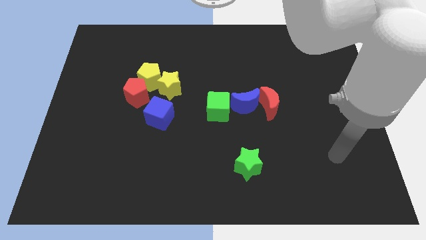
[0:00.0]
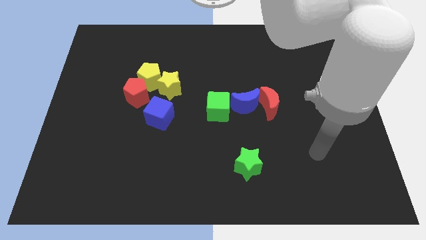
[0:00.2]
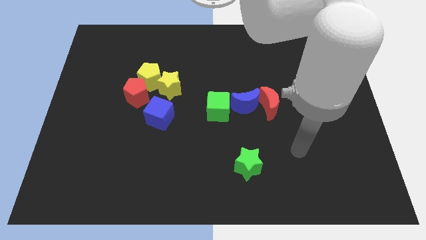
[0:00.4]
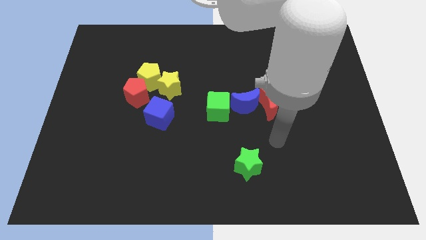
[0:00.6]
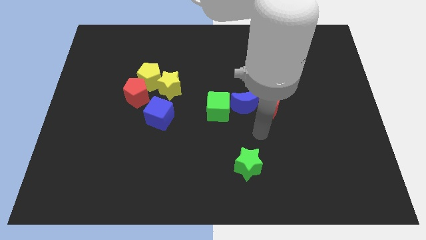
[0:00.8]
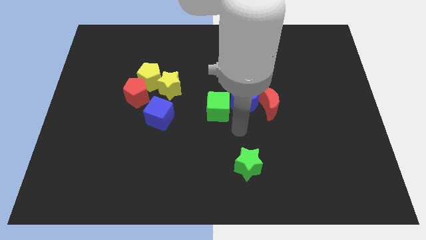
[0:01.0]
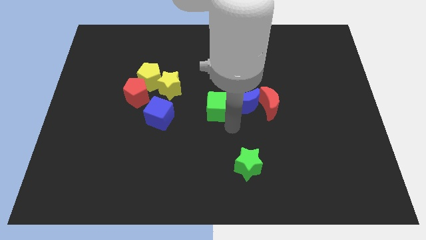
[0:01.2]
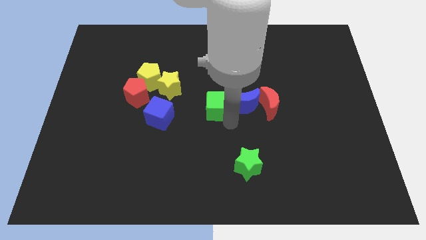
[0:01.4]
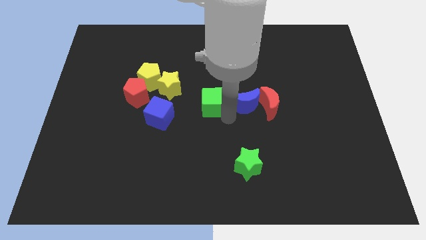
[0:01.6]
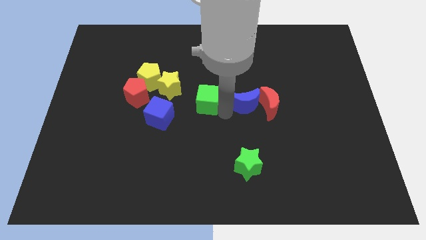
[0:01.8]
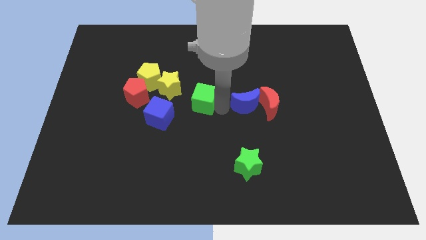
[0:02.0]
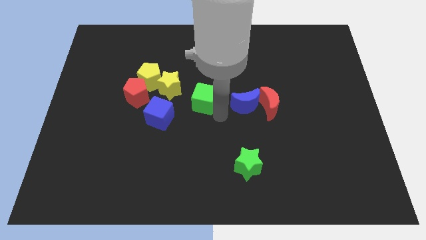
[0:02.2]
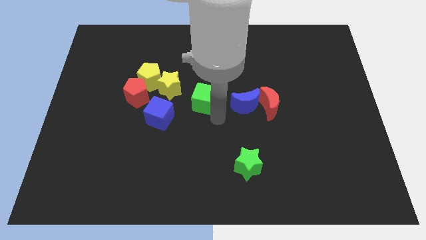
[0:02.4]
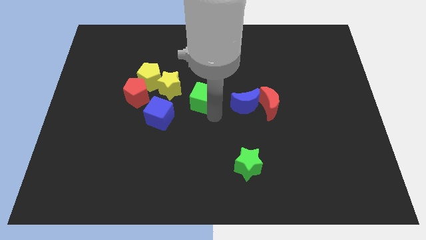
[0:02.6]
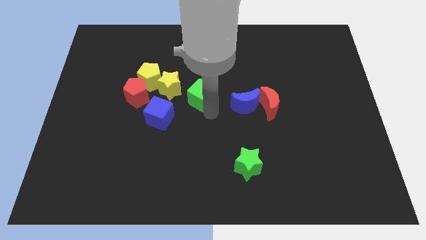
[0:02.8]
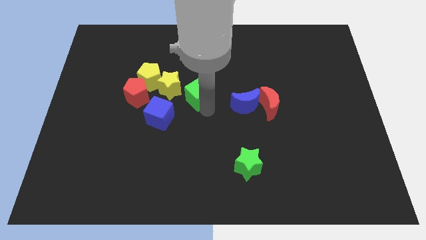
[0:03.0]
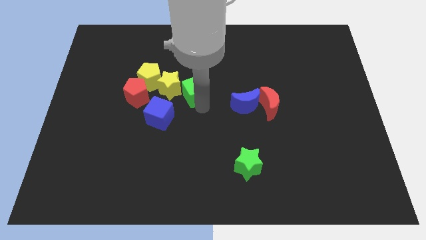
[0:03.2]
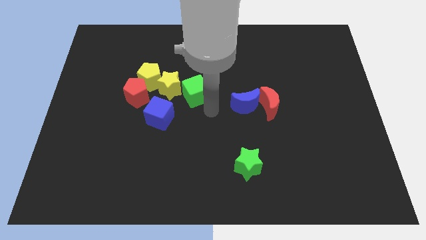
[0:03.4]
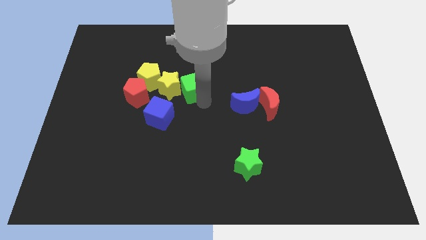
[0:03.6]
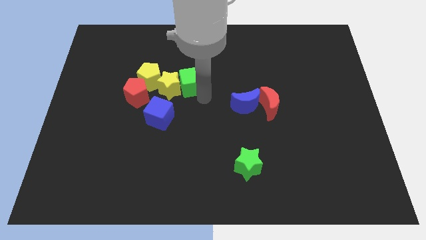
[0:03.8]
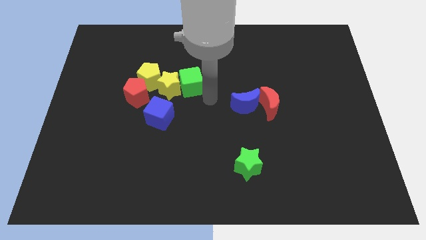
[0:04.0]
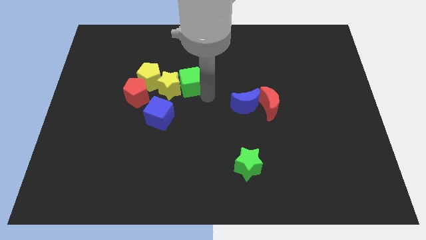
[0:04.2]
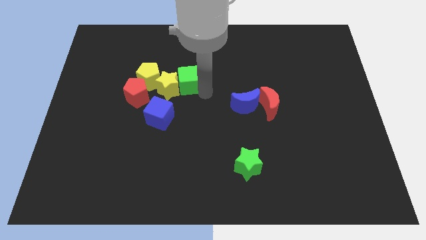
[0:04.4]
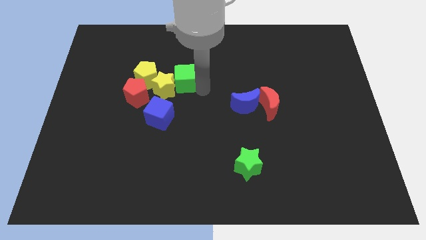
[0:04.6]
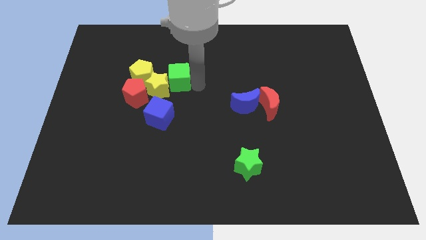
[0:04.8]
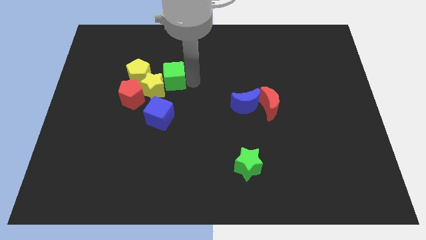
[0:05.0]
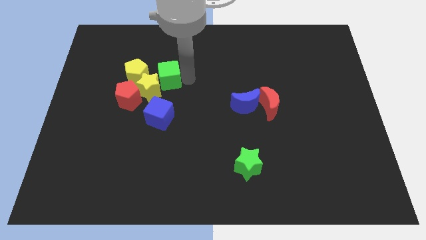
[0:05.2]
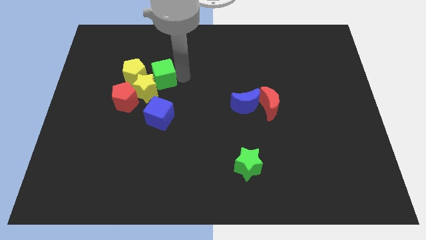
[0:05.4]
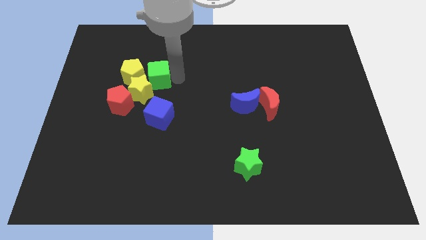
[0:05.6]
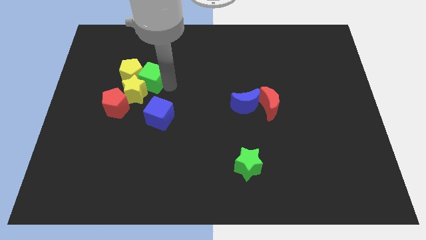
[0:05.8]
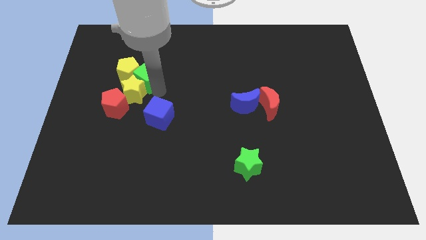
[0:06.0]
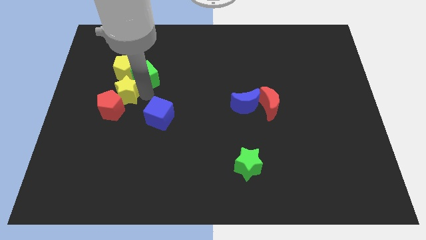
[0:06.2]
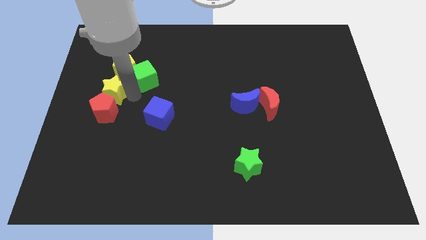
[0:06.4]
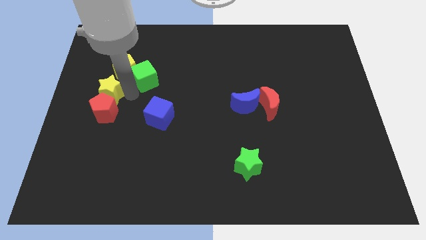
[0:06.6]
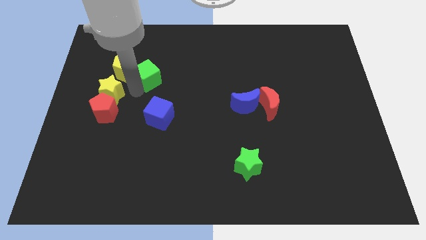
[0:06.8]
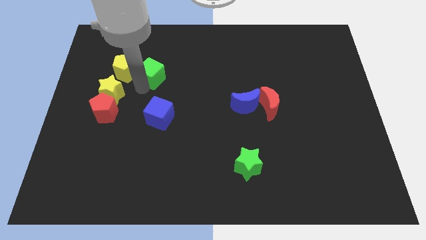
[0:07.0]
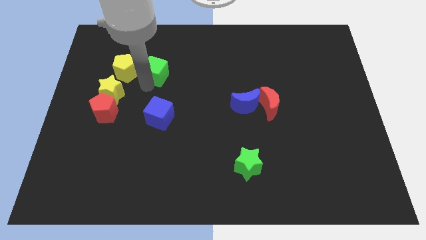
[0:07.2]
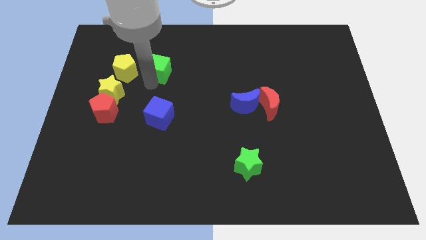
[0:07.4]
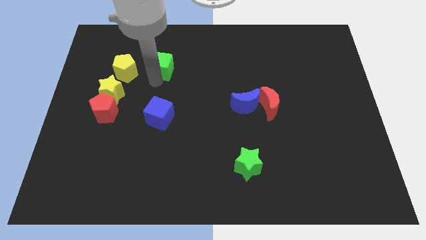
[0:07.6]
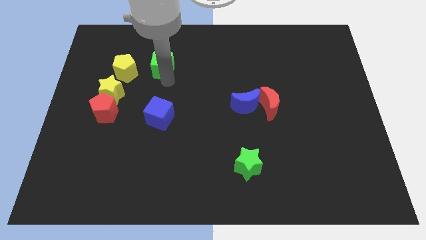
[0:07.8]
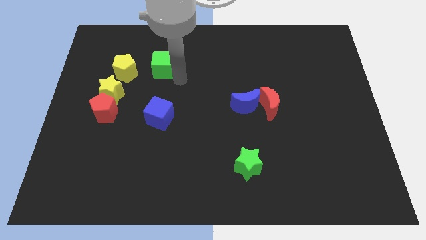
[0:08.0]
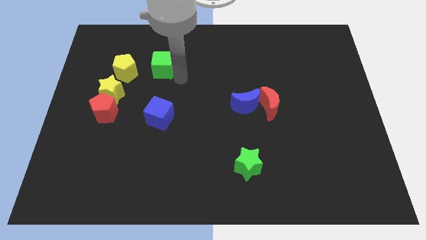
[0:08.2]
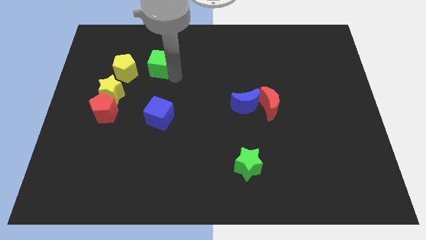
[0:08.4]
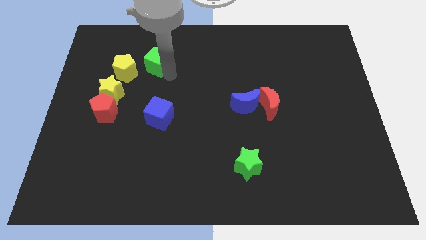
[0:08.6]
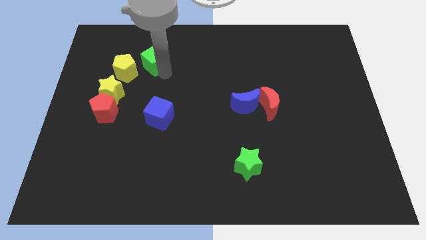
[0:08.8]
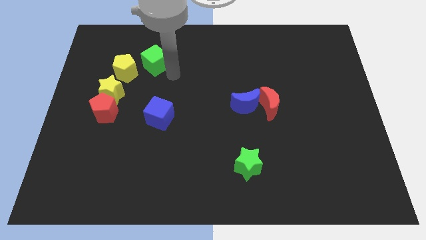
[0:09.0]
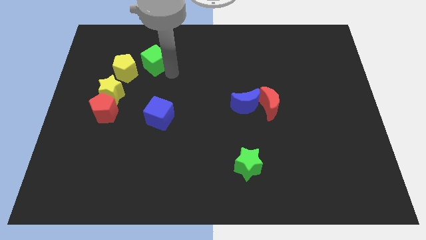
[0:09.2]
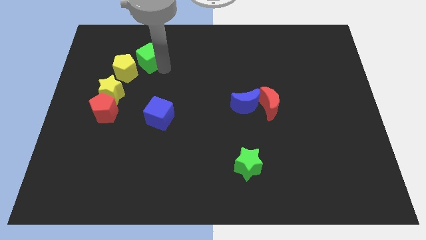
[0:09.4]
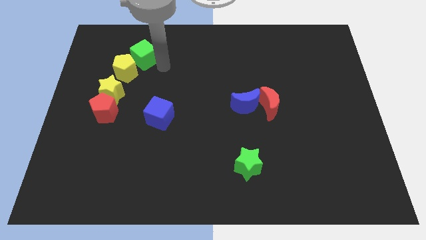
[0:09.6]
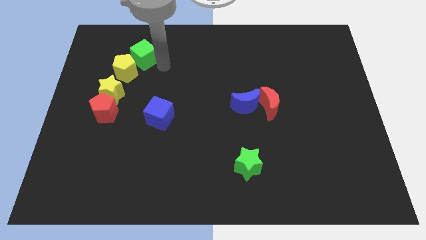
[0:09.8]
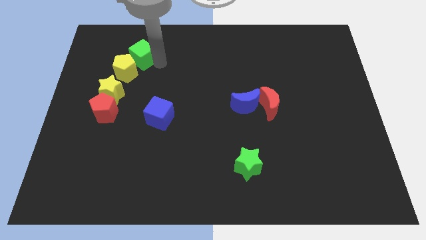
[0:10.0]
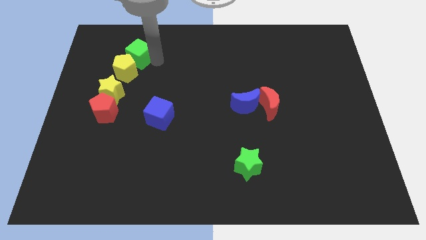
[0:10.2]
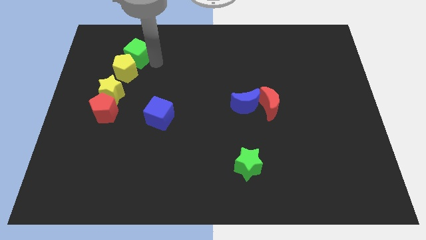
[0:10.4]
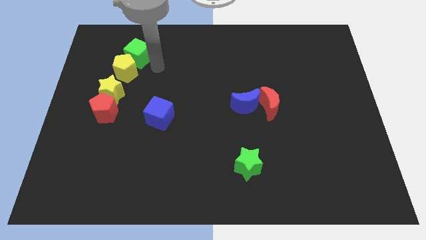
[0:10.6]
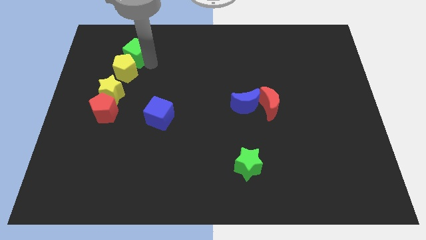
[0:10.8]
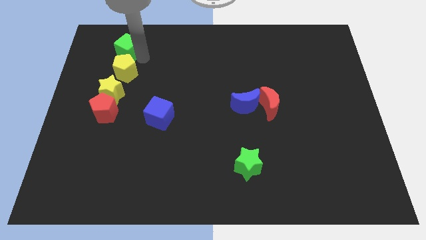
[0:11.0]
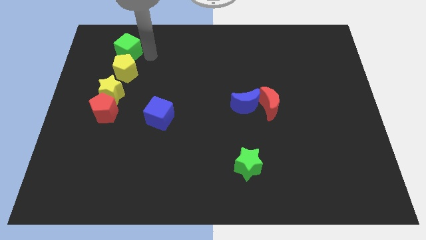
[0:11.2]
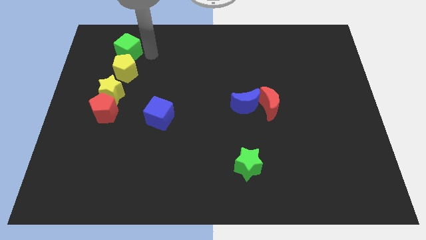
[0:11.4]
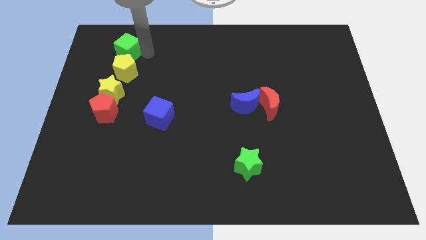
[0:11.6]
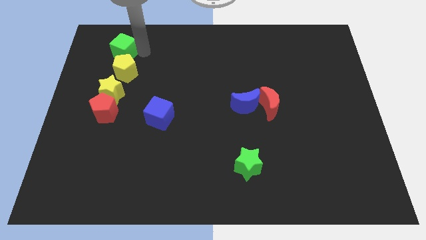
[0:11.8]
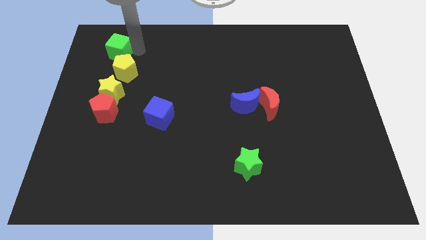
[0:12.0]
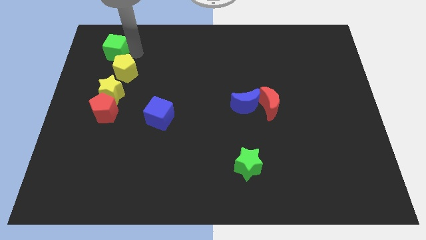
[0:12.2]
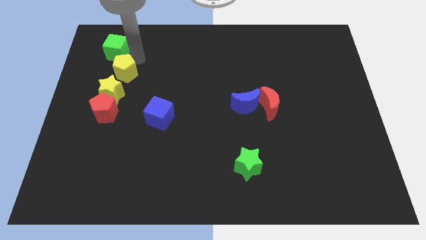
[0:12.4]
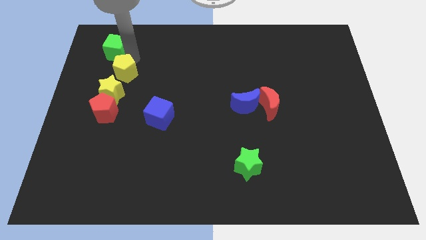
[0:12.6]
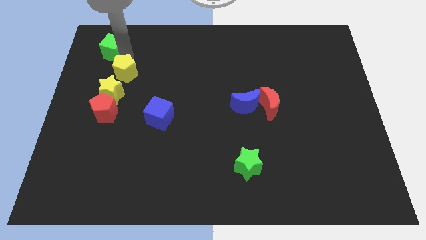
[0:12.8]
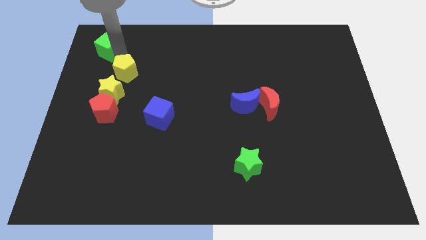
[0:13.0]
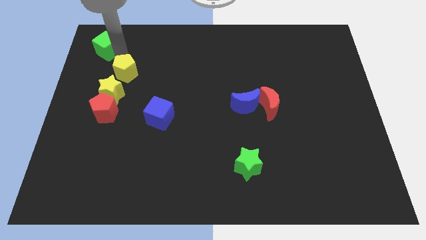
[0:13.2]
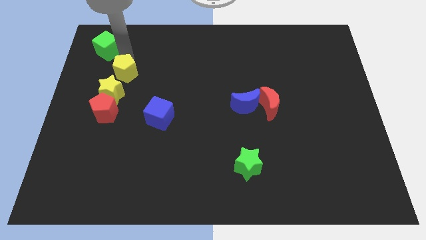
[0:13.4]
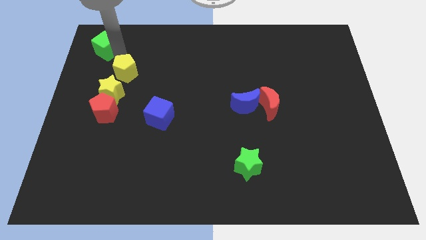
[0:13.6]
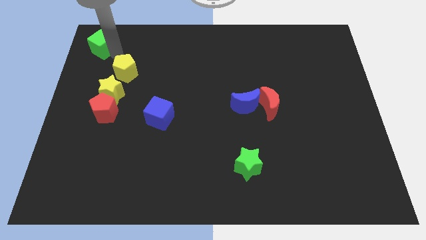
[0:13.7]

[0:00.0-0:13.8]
slide the green cube to the top left
